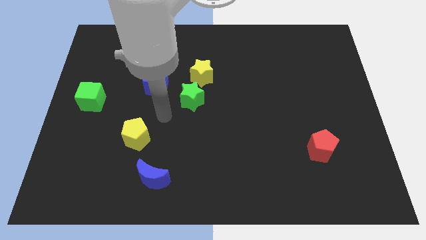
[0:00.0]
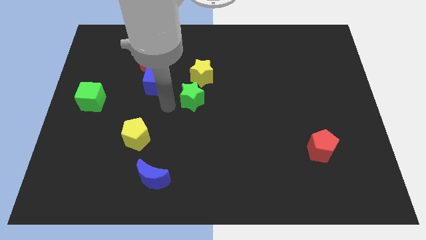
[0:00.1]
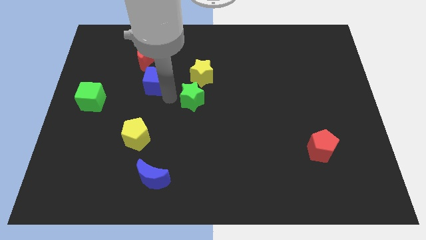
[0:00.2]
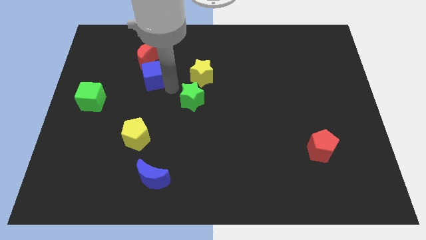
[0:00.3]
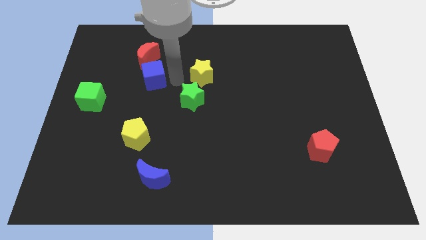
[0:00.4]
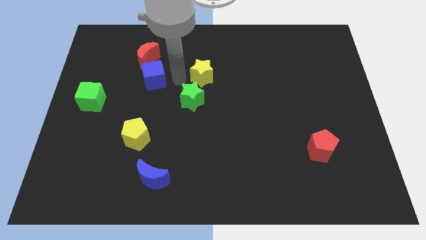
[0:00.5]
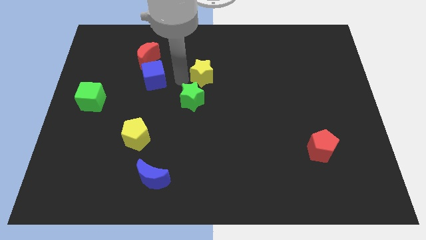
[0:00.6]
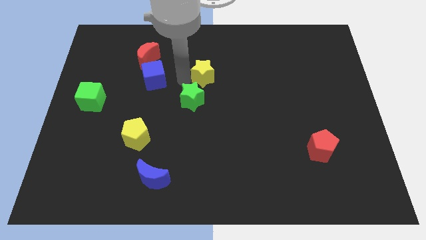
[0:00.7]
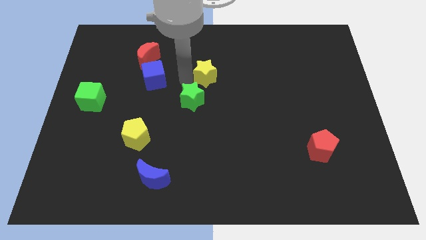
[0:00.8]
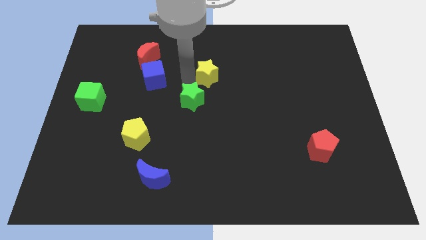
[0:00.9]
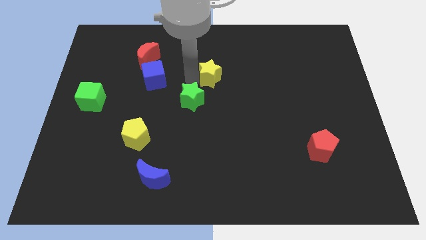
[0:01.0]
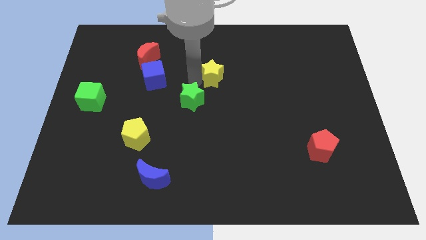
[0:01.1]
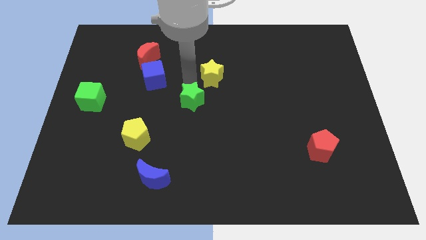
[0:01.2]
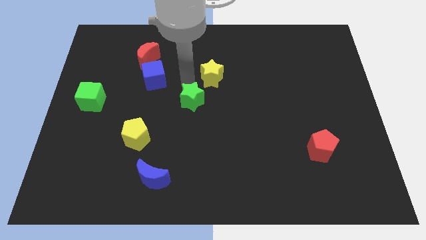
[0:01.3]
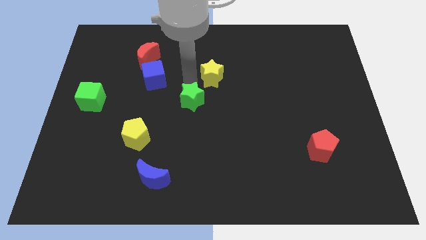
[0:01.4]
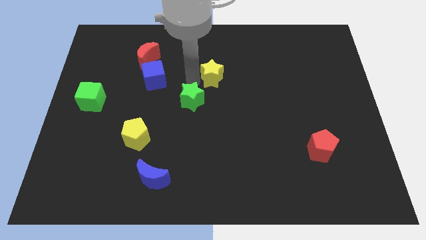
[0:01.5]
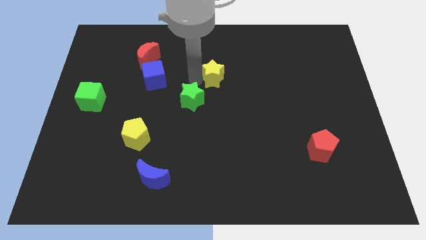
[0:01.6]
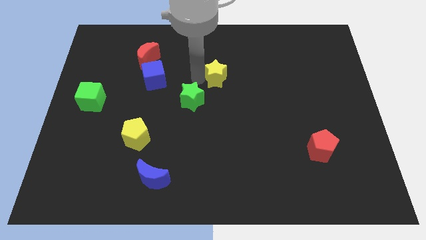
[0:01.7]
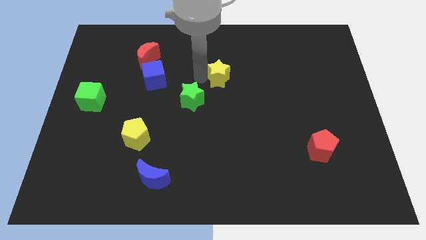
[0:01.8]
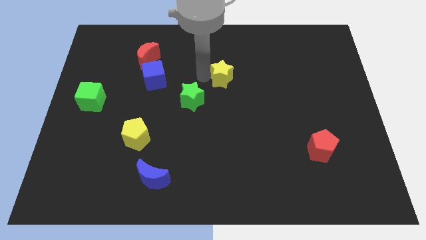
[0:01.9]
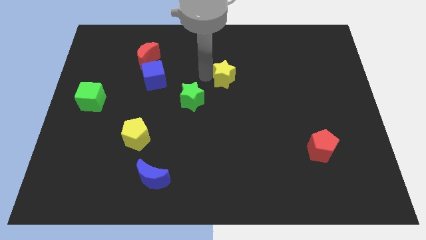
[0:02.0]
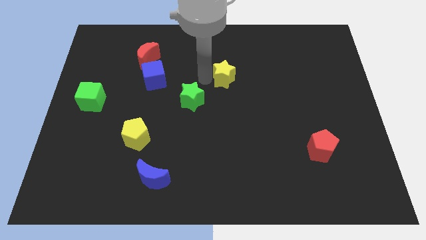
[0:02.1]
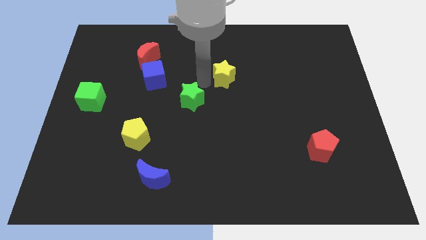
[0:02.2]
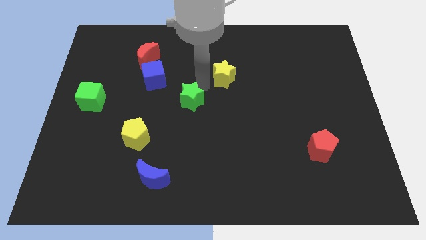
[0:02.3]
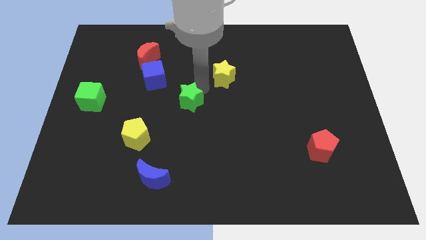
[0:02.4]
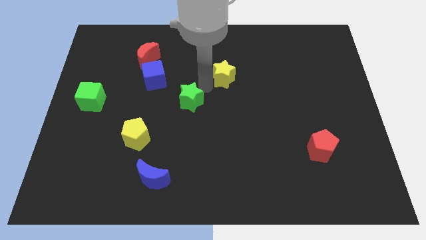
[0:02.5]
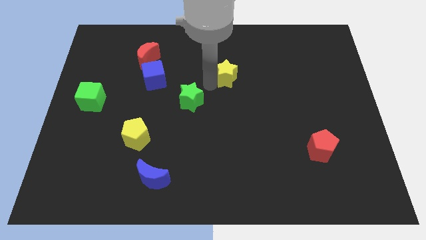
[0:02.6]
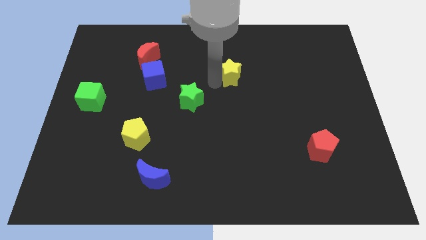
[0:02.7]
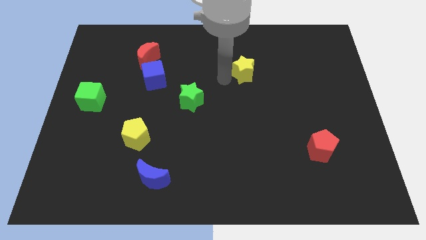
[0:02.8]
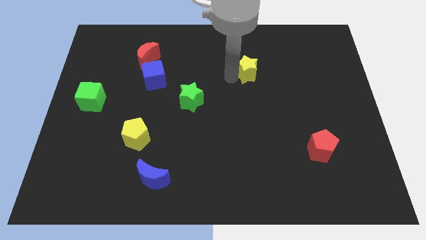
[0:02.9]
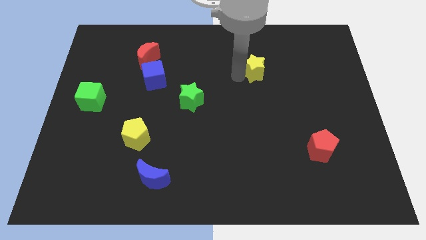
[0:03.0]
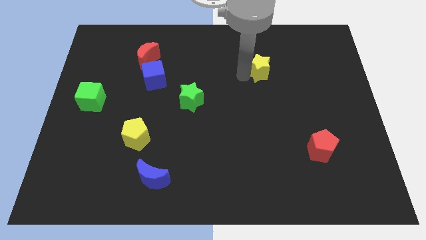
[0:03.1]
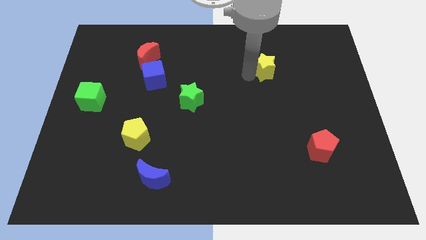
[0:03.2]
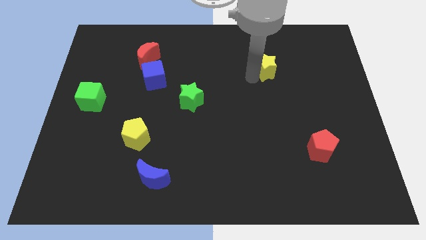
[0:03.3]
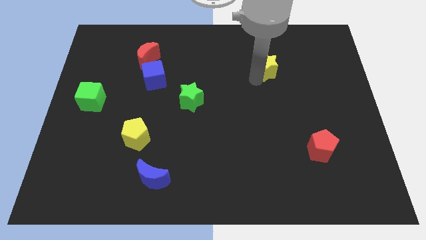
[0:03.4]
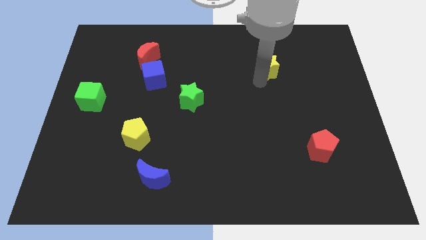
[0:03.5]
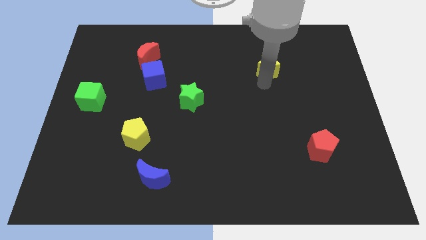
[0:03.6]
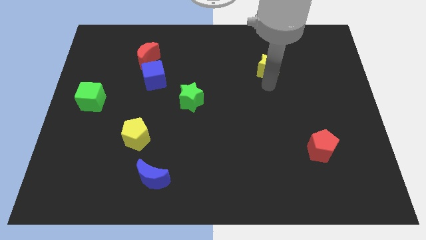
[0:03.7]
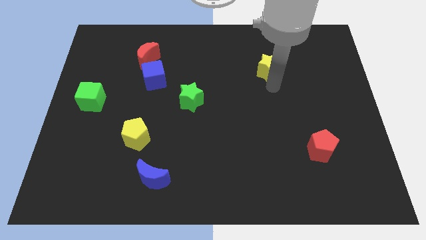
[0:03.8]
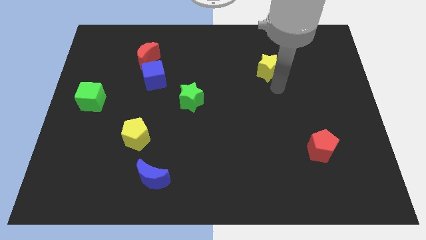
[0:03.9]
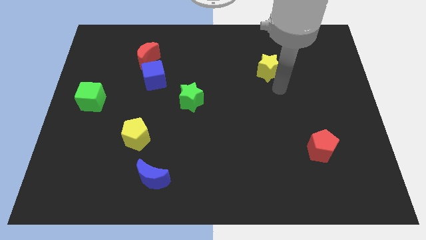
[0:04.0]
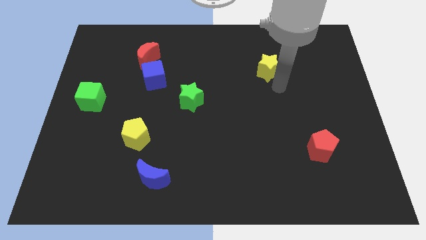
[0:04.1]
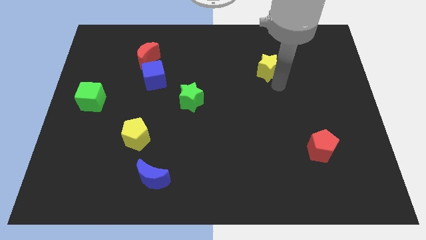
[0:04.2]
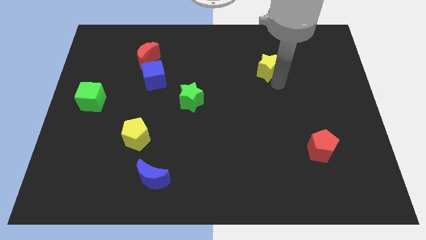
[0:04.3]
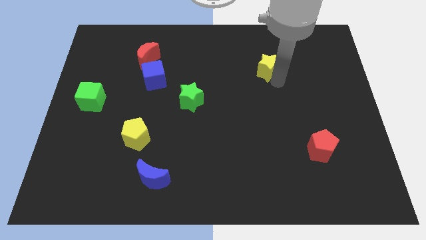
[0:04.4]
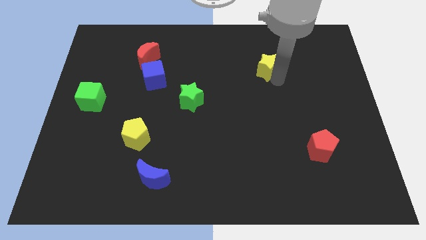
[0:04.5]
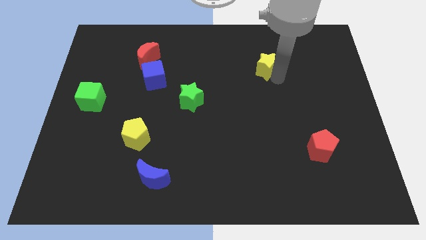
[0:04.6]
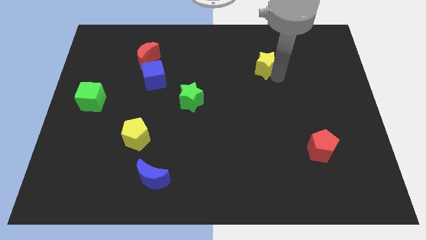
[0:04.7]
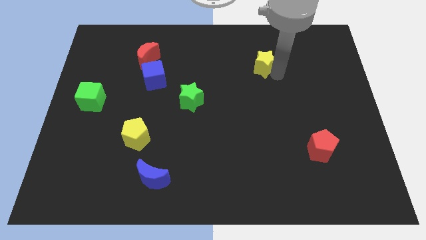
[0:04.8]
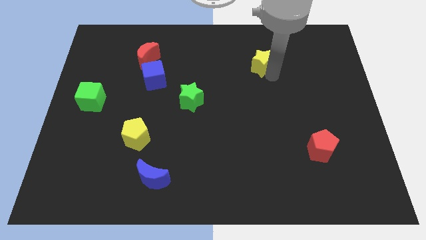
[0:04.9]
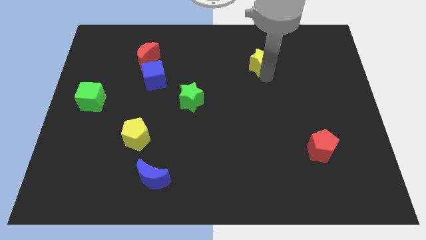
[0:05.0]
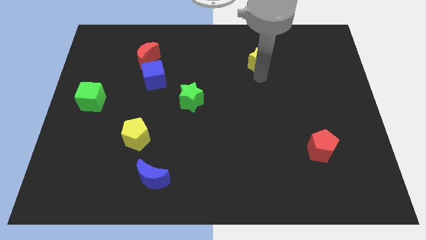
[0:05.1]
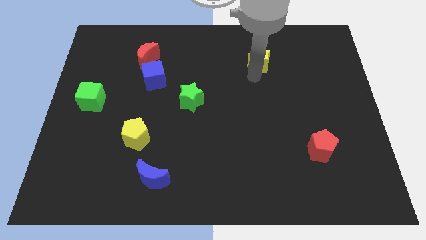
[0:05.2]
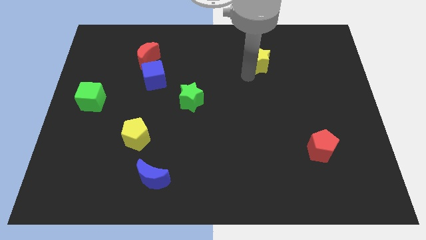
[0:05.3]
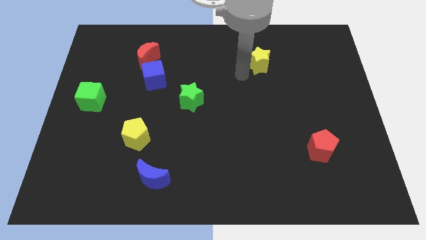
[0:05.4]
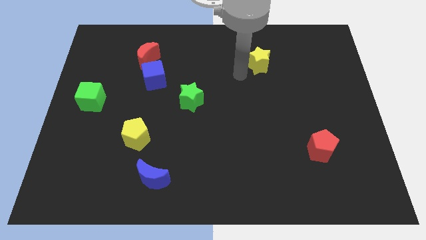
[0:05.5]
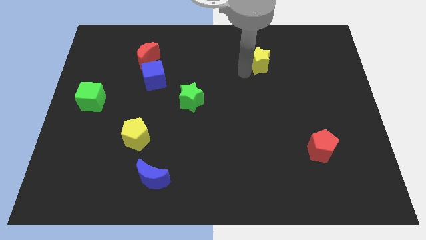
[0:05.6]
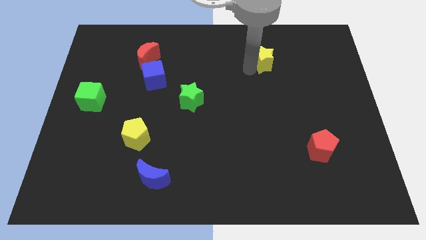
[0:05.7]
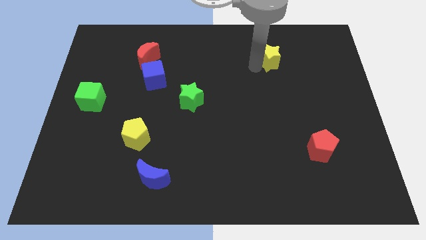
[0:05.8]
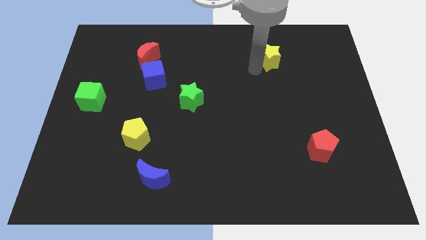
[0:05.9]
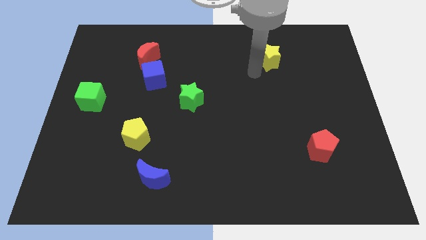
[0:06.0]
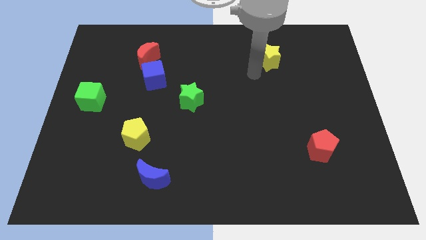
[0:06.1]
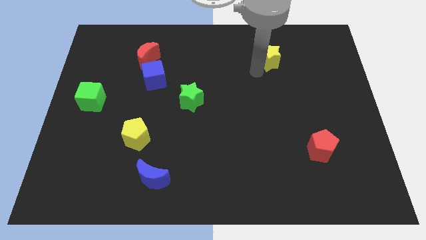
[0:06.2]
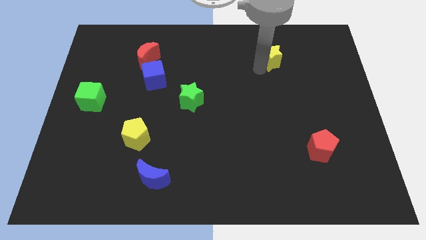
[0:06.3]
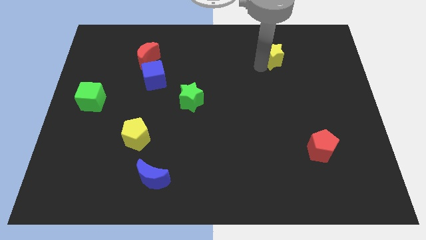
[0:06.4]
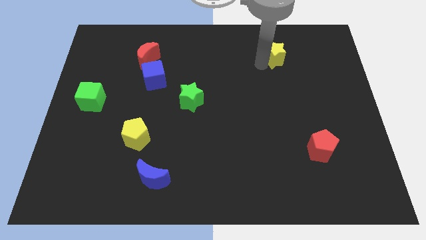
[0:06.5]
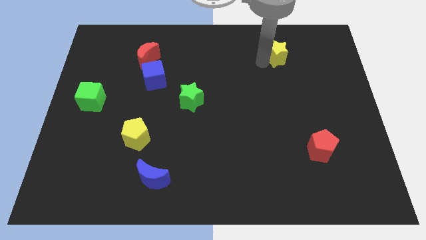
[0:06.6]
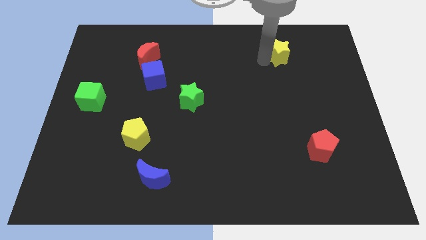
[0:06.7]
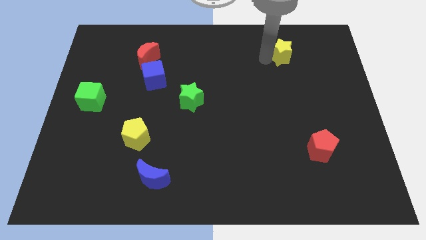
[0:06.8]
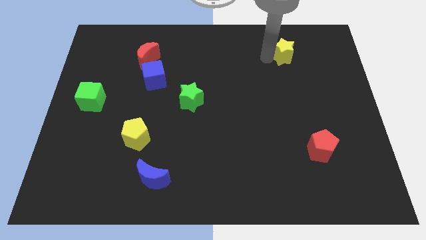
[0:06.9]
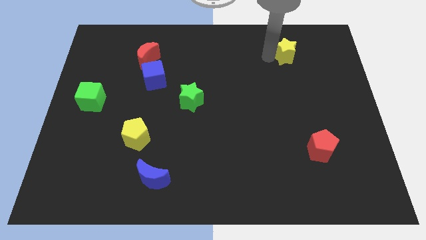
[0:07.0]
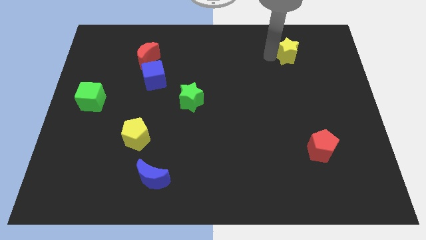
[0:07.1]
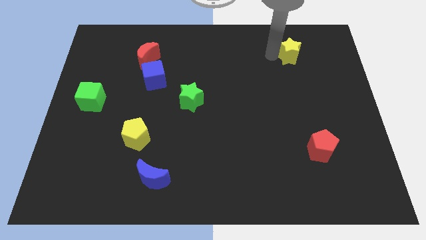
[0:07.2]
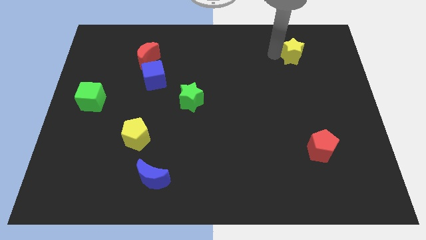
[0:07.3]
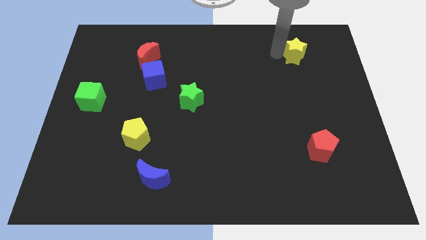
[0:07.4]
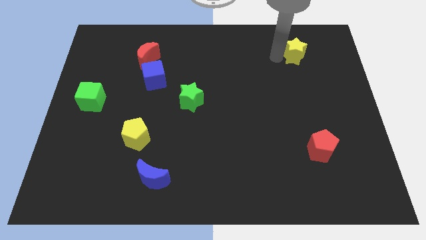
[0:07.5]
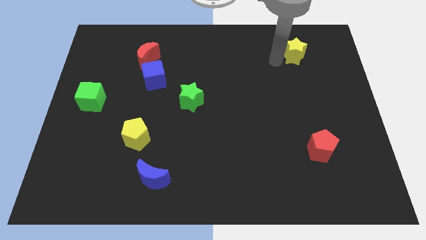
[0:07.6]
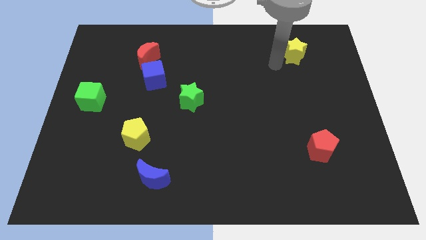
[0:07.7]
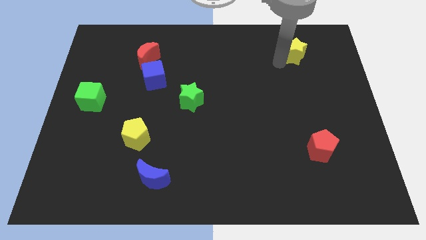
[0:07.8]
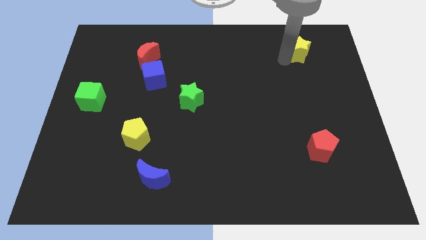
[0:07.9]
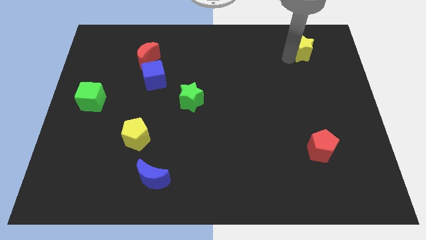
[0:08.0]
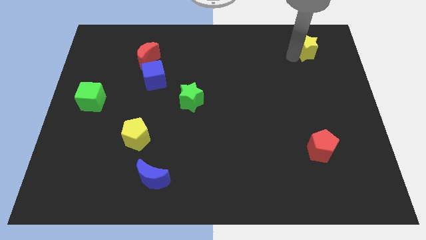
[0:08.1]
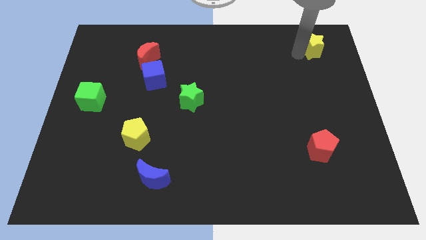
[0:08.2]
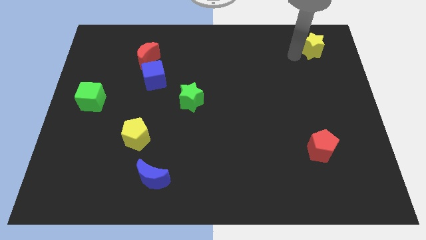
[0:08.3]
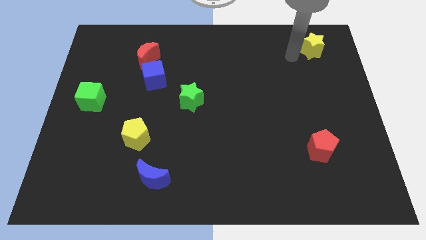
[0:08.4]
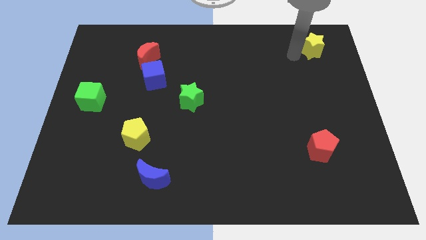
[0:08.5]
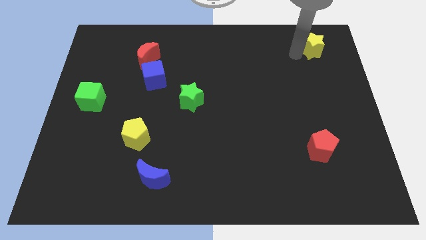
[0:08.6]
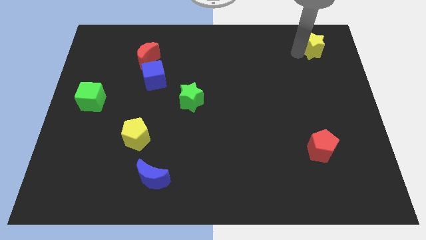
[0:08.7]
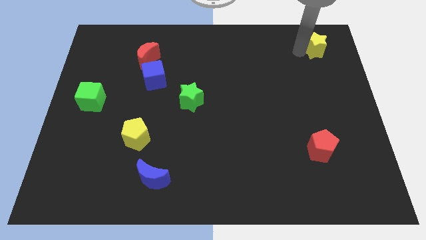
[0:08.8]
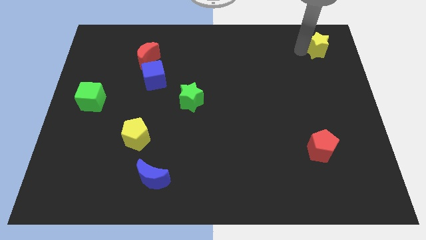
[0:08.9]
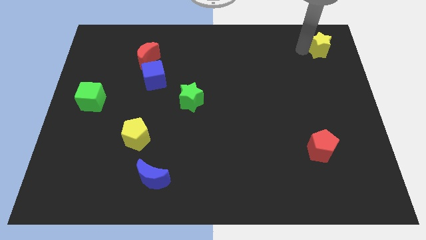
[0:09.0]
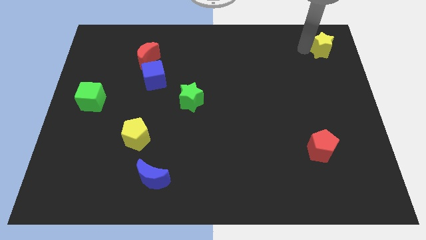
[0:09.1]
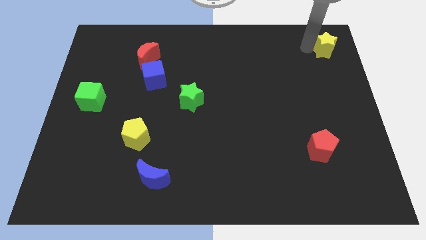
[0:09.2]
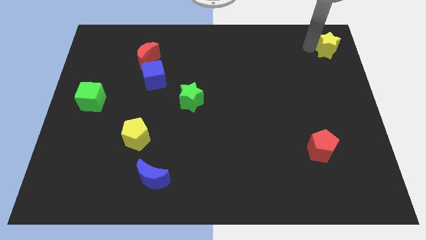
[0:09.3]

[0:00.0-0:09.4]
move the yellow star to the top right of the board
